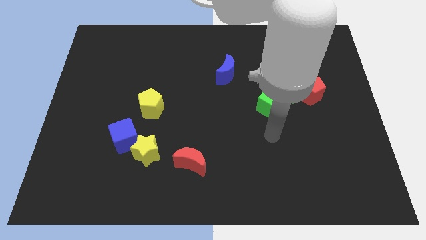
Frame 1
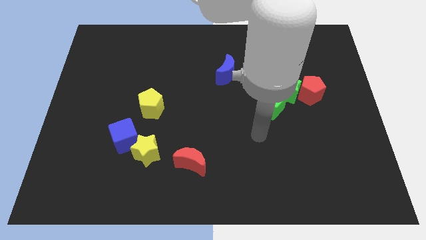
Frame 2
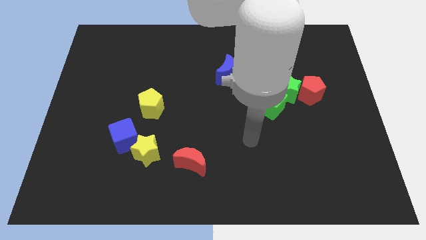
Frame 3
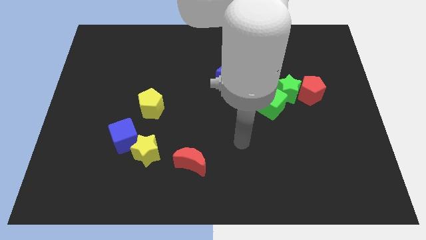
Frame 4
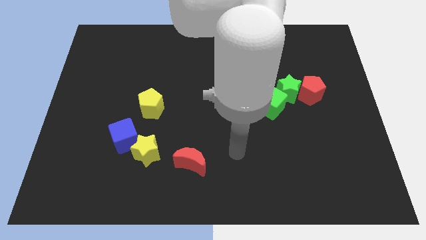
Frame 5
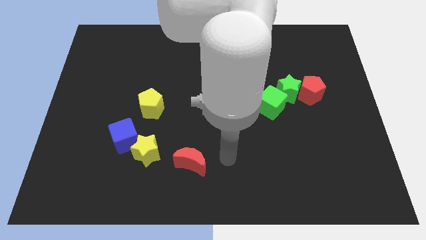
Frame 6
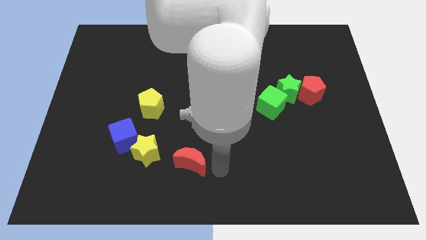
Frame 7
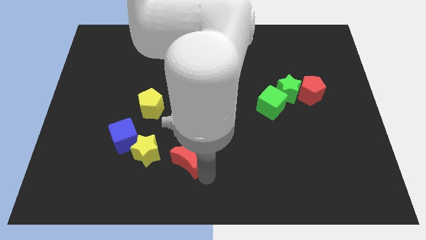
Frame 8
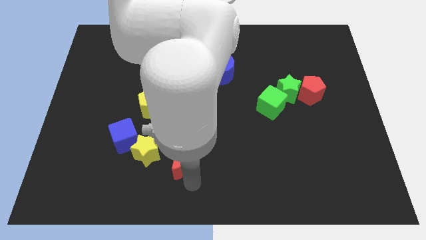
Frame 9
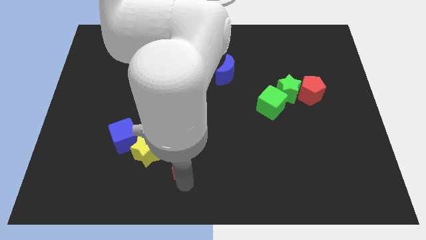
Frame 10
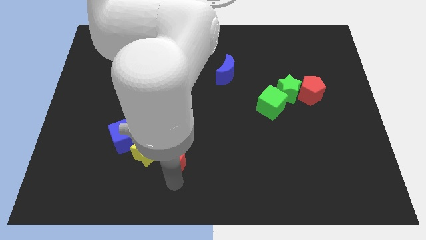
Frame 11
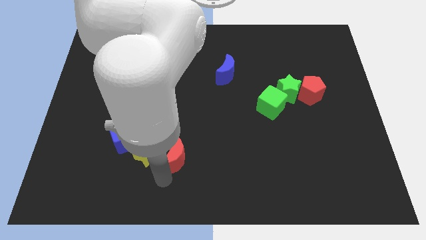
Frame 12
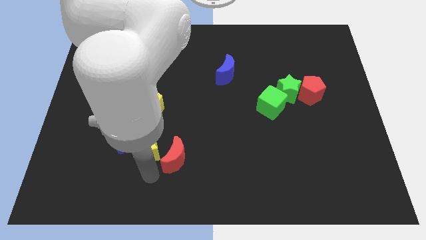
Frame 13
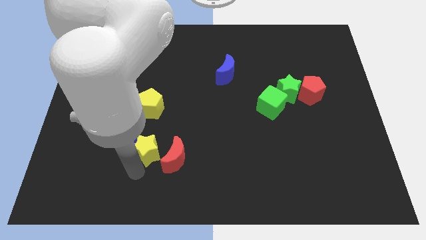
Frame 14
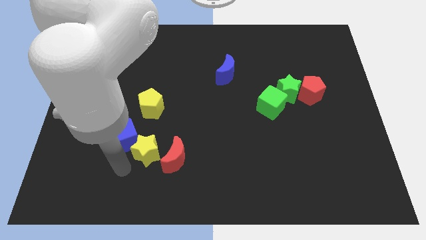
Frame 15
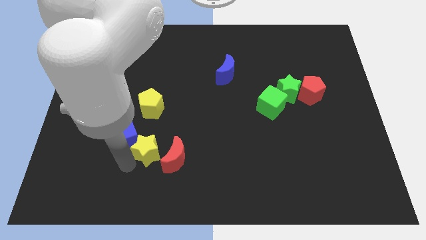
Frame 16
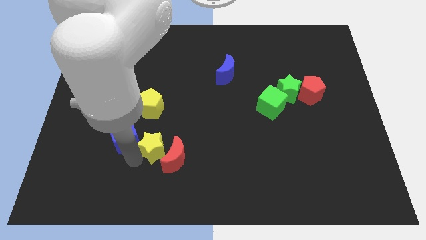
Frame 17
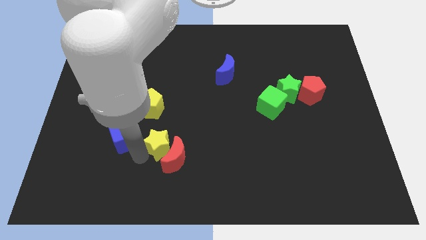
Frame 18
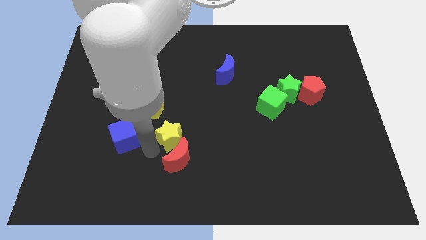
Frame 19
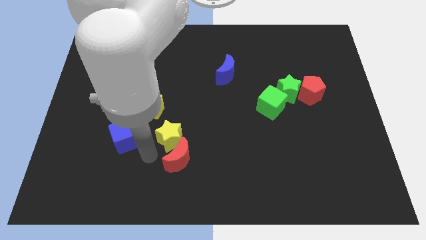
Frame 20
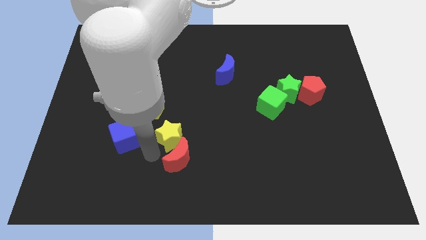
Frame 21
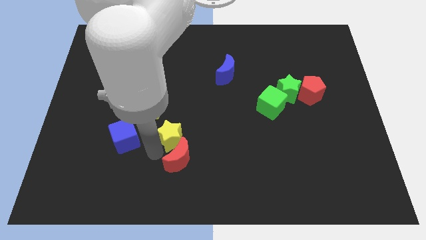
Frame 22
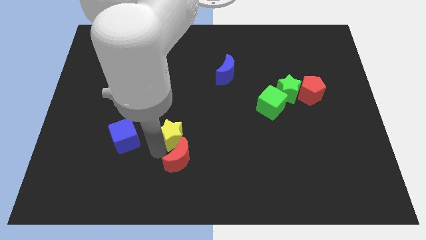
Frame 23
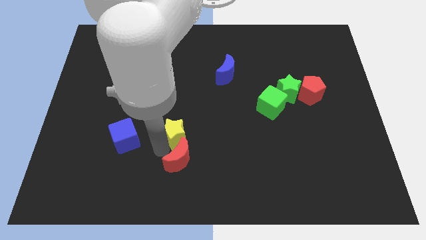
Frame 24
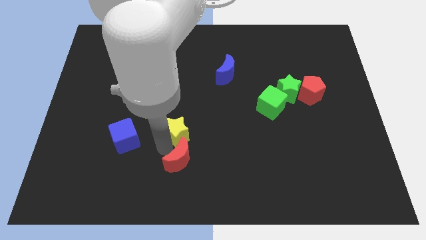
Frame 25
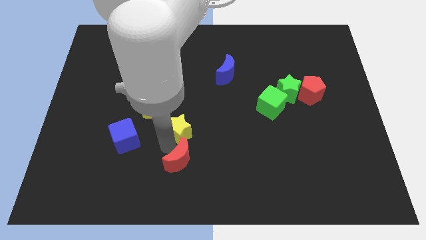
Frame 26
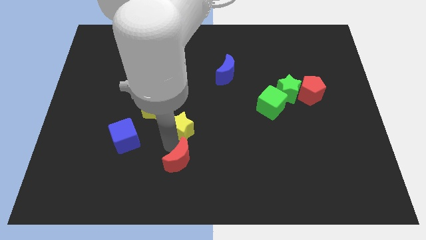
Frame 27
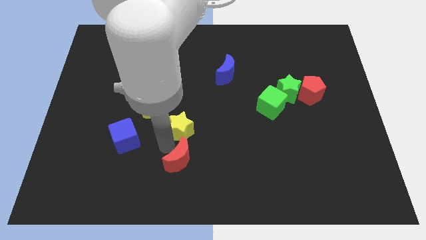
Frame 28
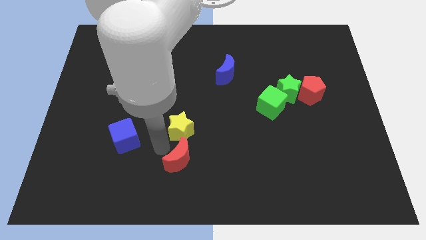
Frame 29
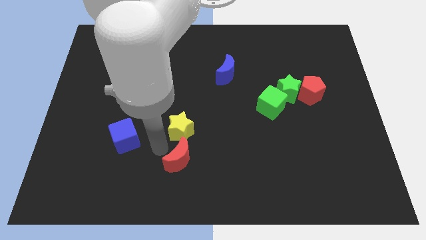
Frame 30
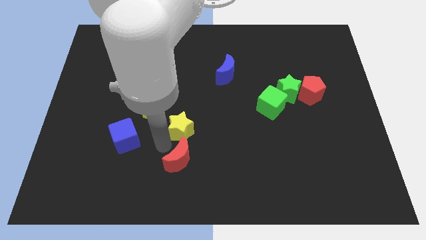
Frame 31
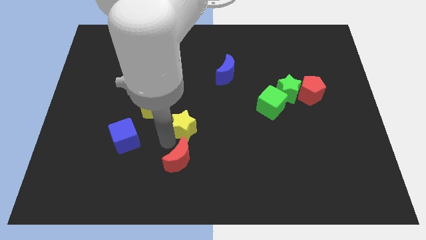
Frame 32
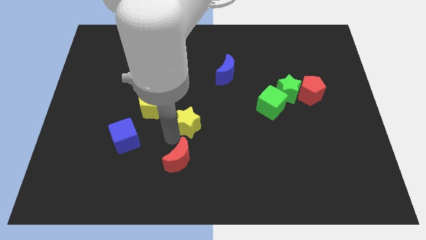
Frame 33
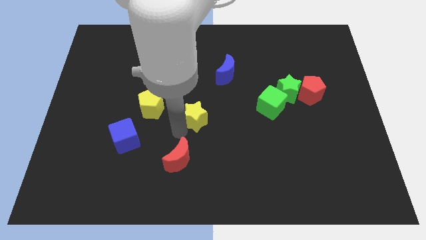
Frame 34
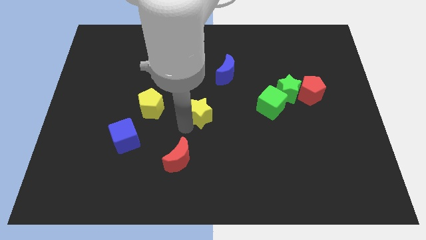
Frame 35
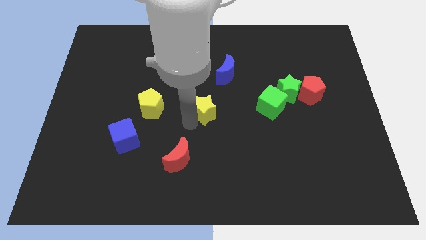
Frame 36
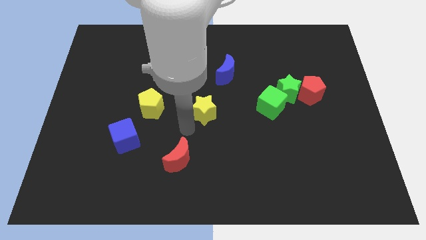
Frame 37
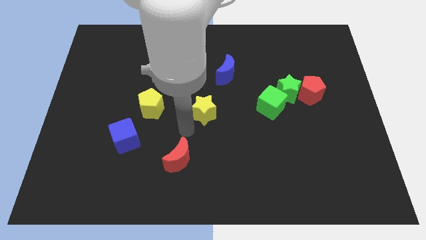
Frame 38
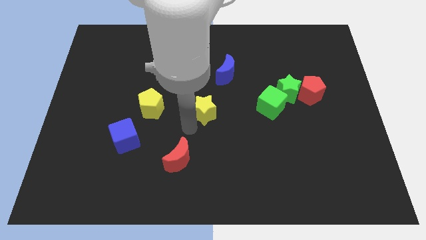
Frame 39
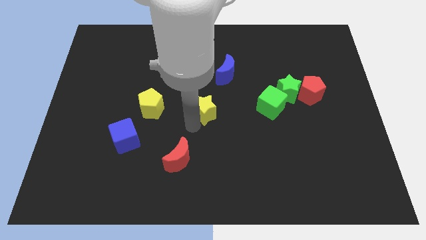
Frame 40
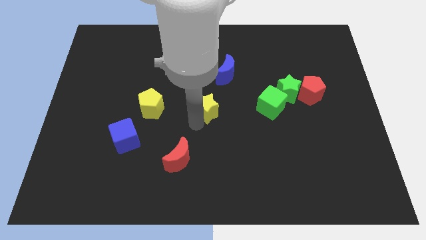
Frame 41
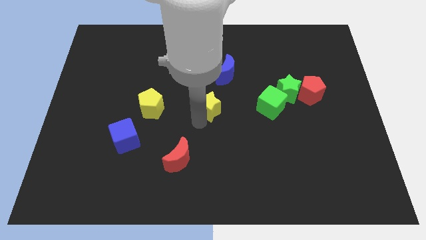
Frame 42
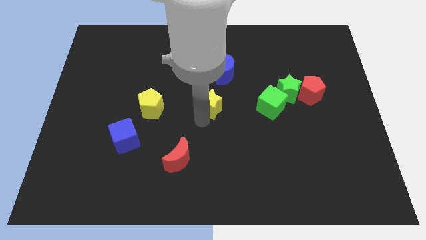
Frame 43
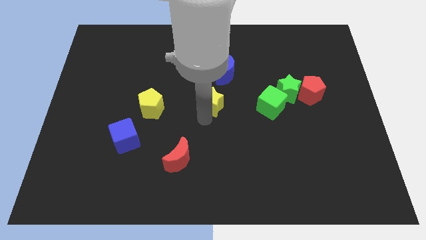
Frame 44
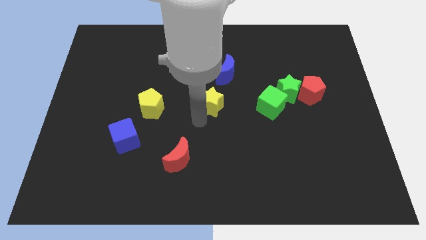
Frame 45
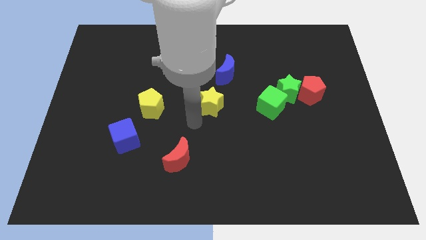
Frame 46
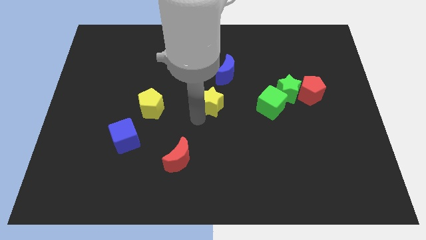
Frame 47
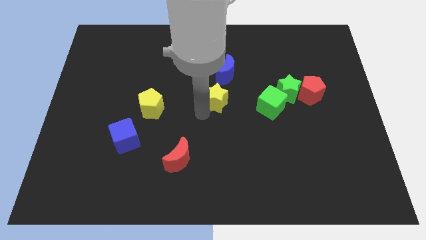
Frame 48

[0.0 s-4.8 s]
push the yellow star diagonally upwards and right

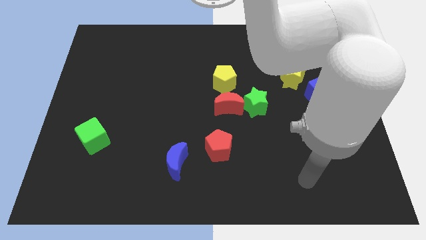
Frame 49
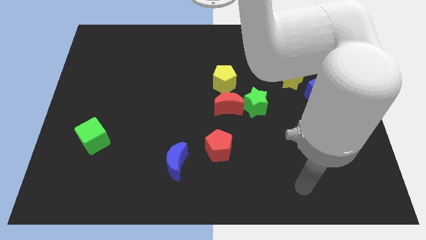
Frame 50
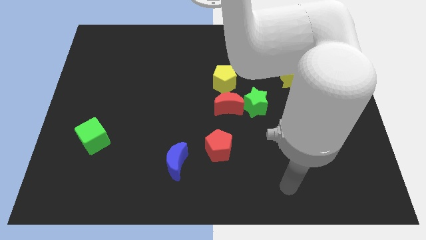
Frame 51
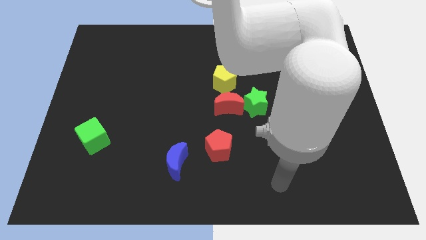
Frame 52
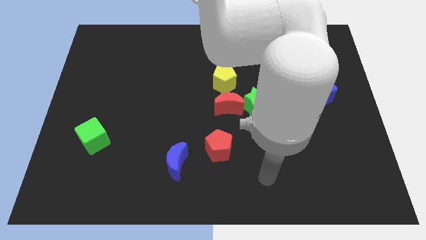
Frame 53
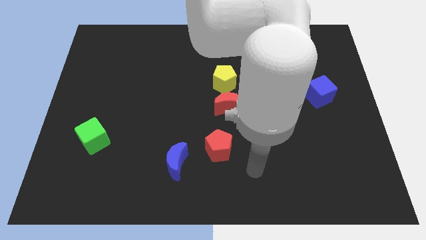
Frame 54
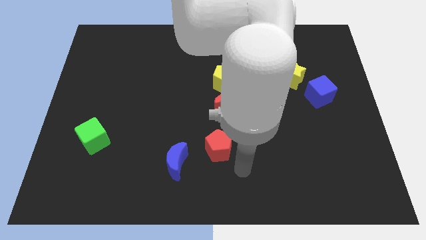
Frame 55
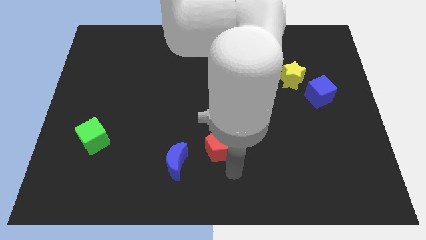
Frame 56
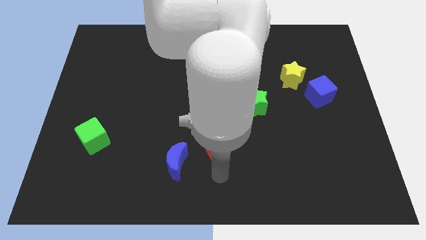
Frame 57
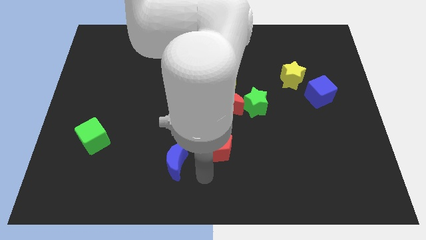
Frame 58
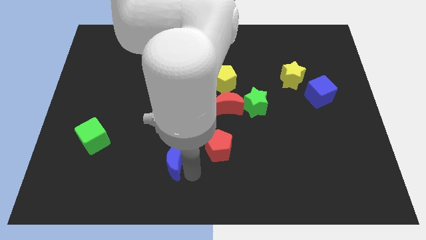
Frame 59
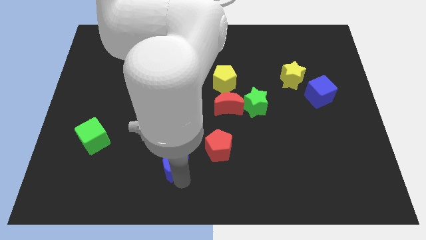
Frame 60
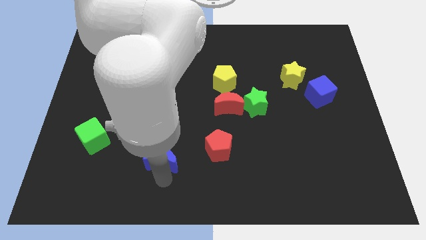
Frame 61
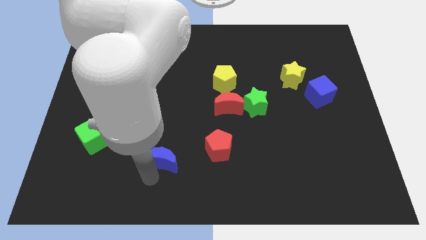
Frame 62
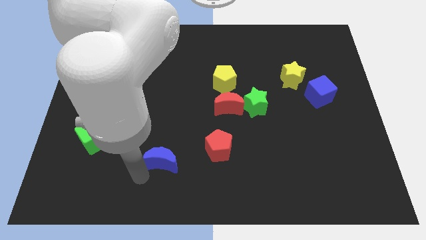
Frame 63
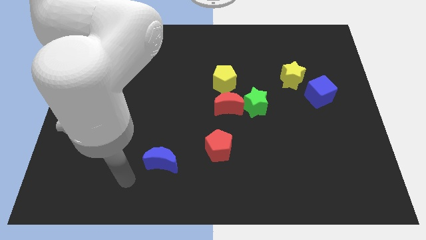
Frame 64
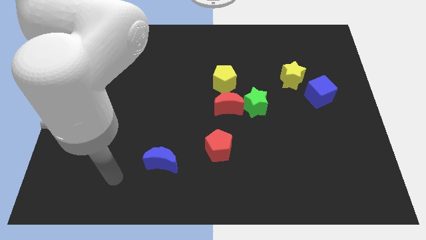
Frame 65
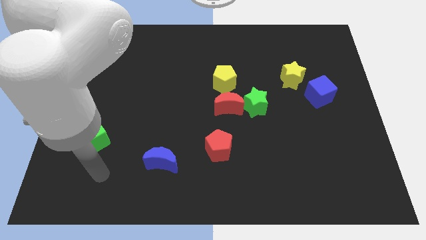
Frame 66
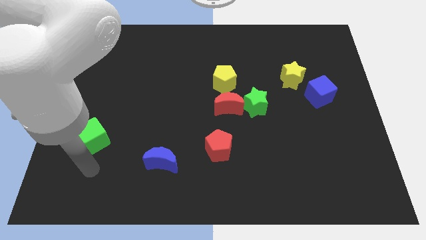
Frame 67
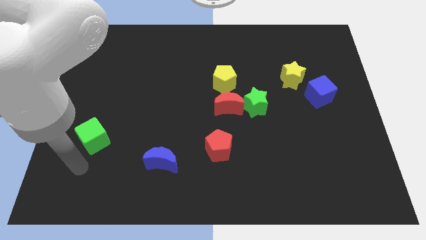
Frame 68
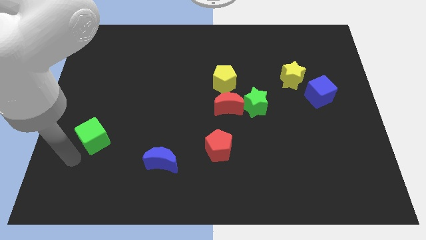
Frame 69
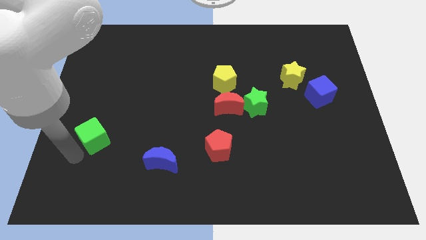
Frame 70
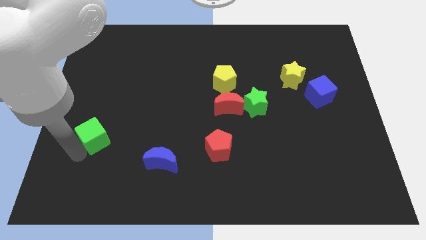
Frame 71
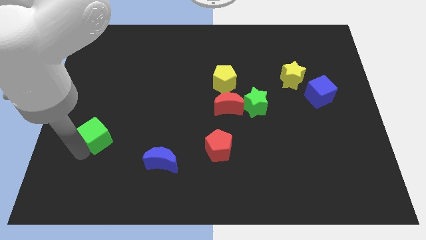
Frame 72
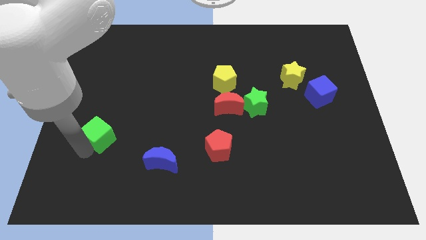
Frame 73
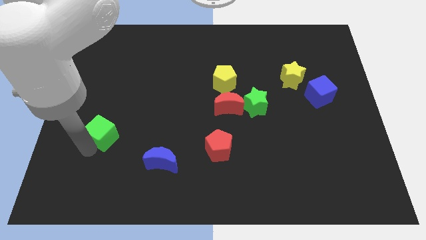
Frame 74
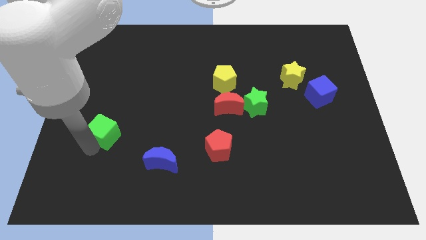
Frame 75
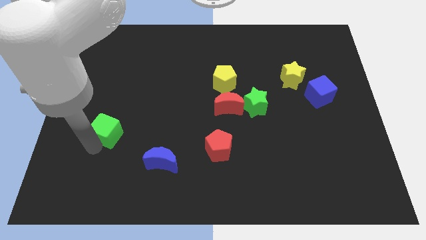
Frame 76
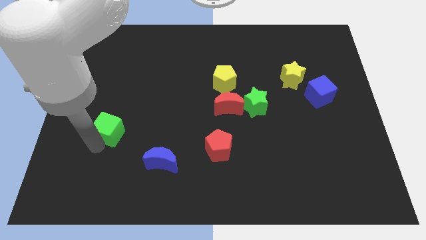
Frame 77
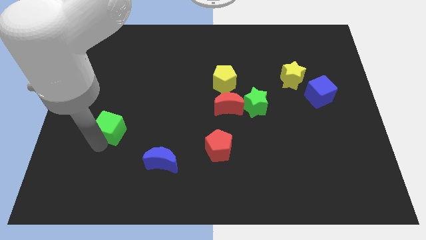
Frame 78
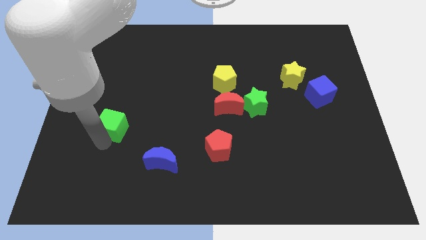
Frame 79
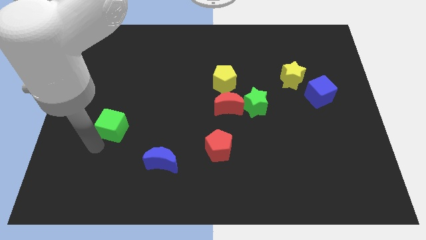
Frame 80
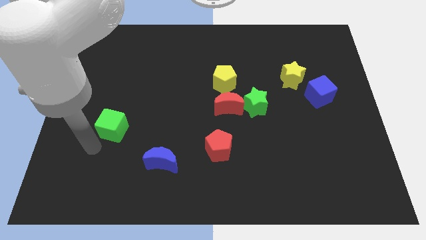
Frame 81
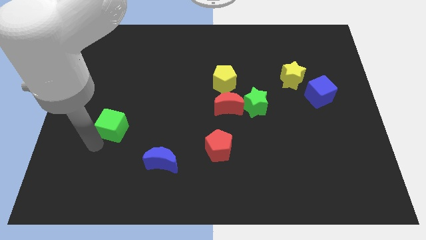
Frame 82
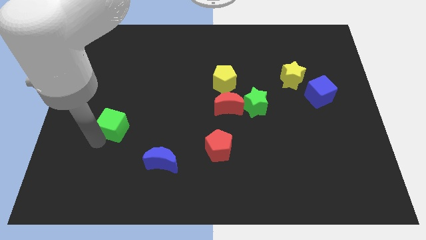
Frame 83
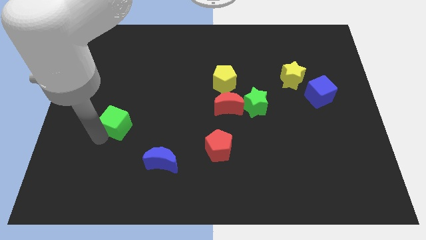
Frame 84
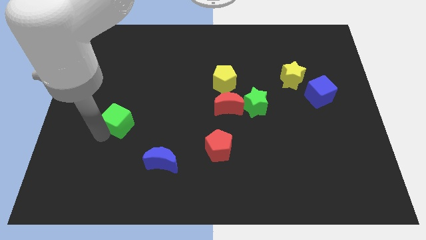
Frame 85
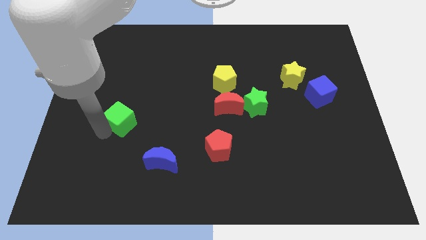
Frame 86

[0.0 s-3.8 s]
slide the green cube upwards and then right somewhat
